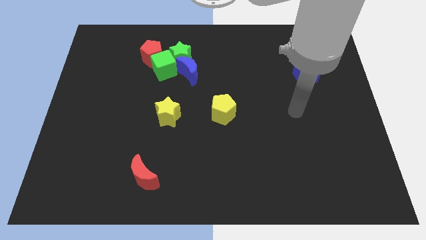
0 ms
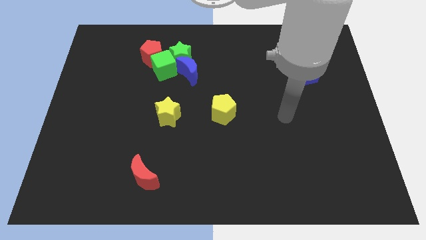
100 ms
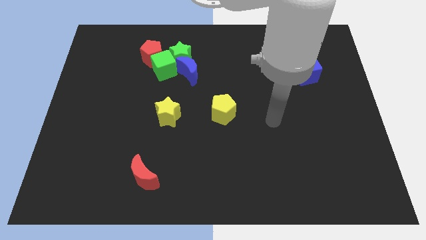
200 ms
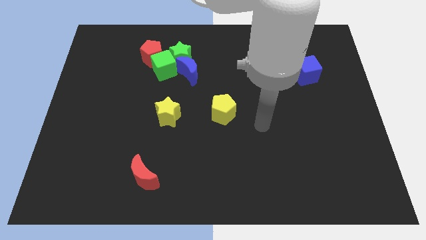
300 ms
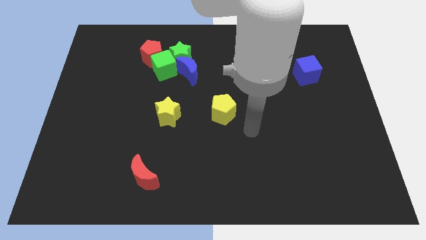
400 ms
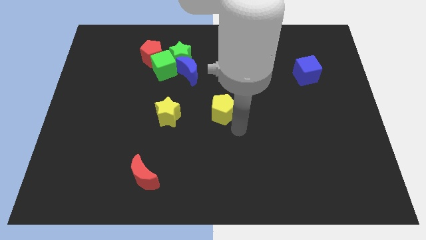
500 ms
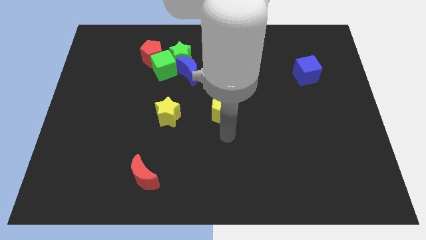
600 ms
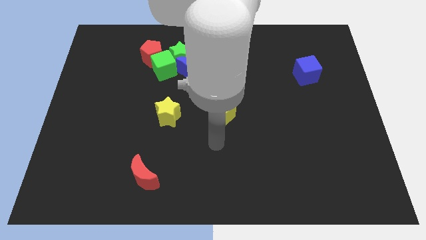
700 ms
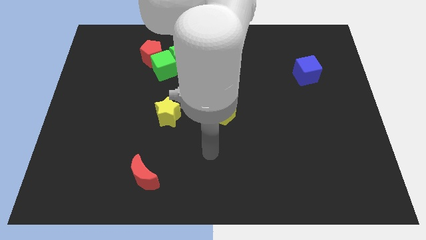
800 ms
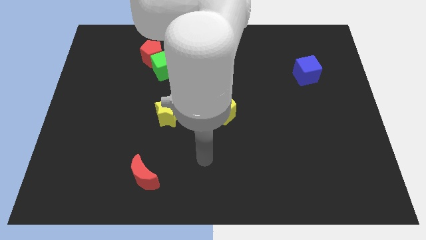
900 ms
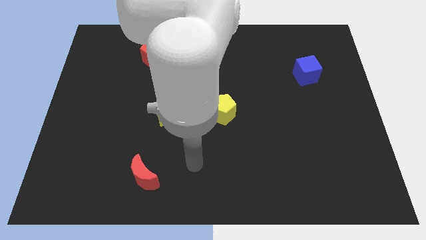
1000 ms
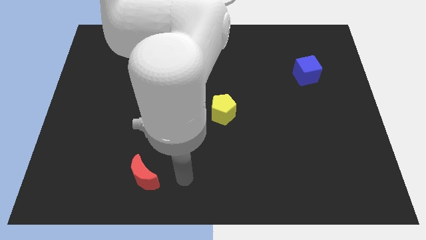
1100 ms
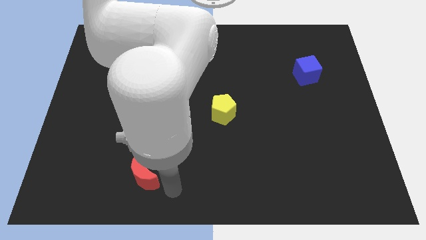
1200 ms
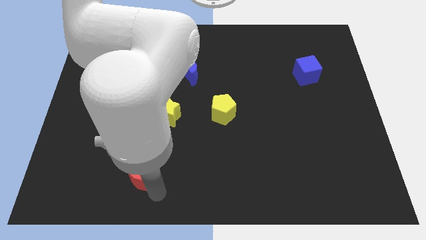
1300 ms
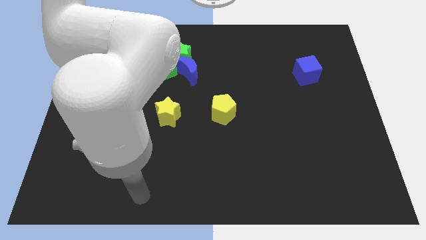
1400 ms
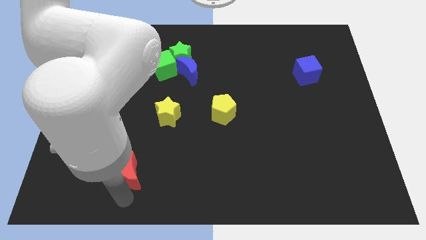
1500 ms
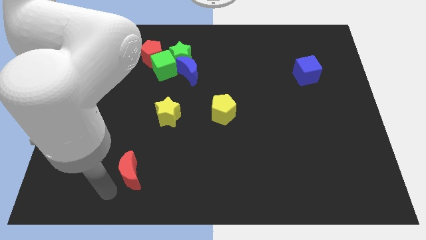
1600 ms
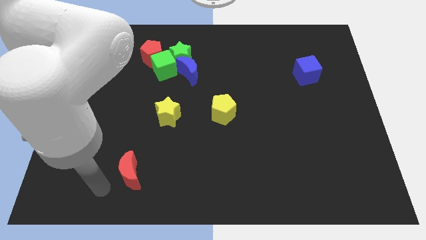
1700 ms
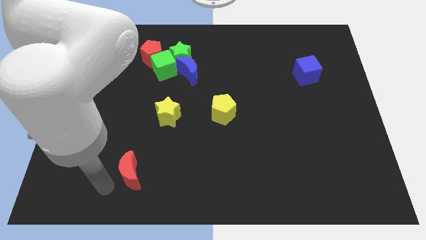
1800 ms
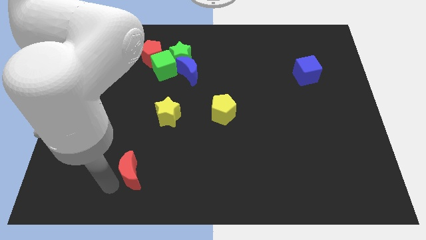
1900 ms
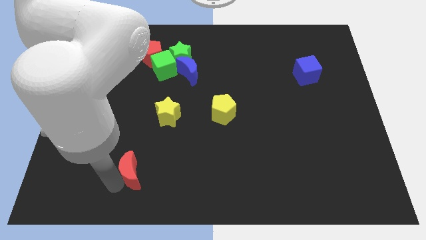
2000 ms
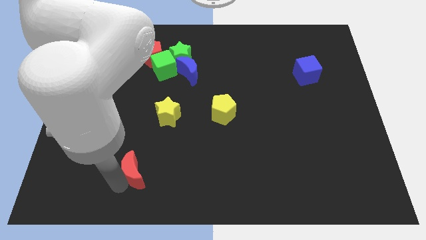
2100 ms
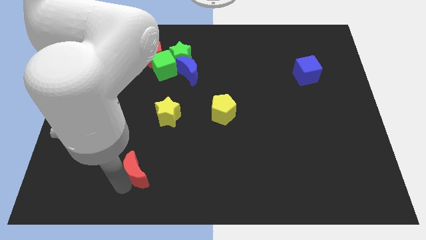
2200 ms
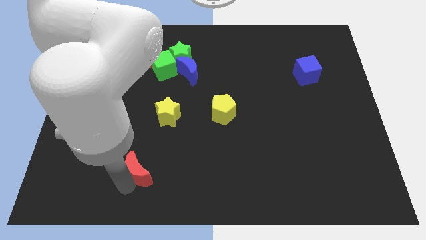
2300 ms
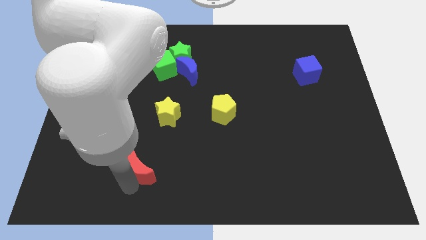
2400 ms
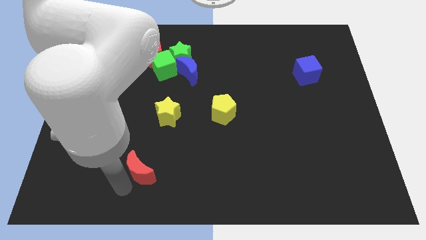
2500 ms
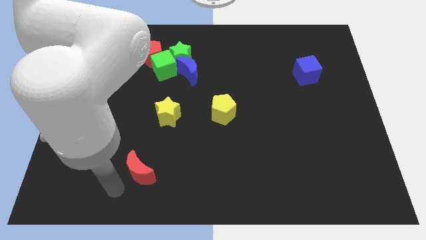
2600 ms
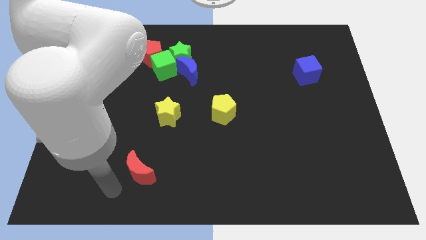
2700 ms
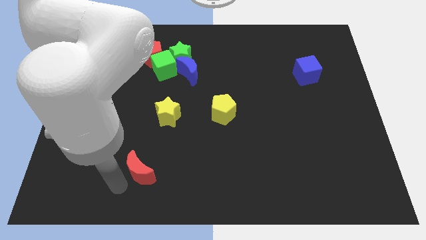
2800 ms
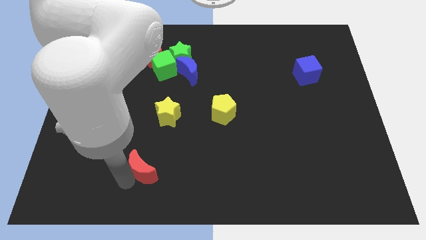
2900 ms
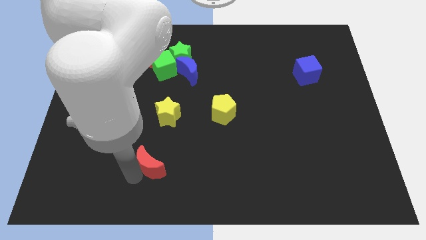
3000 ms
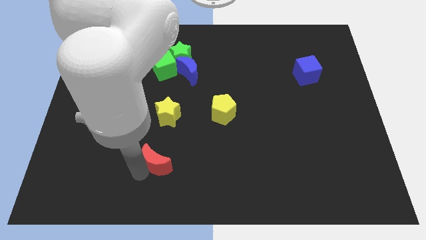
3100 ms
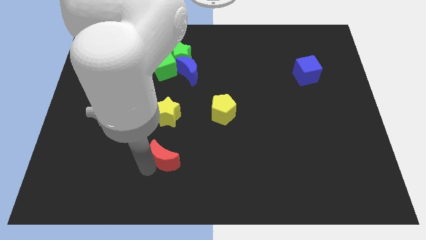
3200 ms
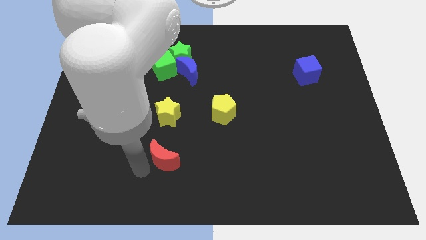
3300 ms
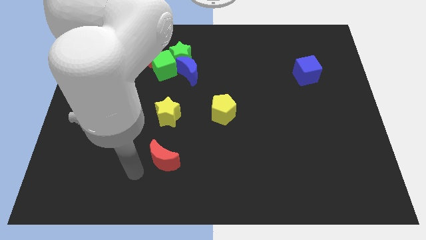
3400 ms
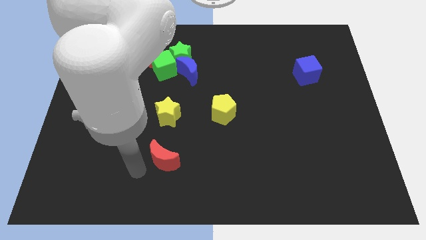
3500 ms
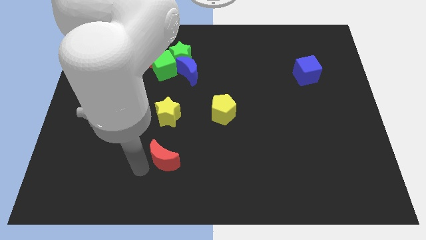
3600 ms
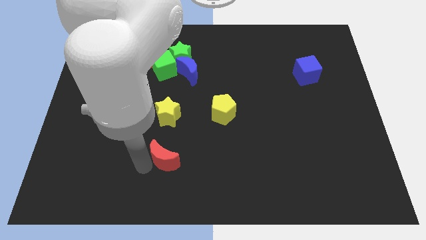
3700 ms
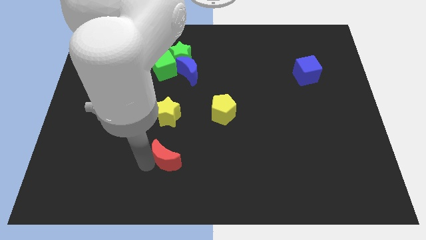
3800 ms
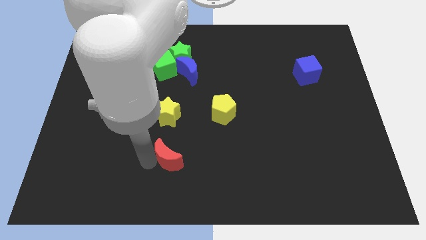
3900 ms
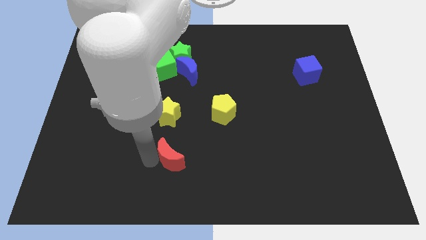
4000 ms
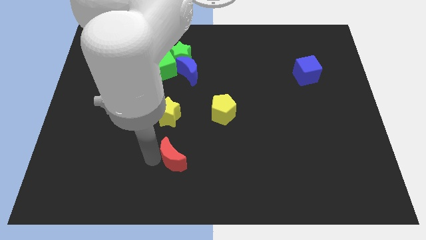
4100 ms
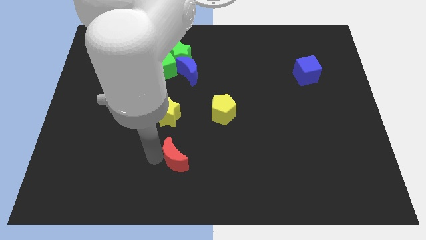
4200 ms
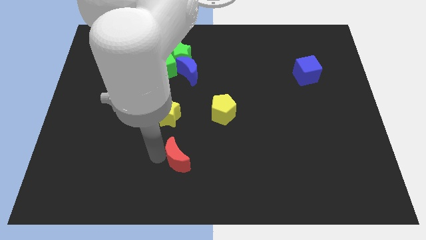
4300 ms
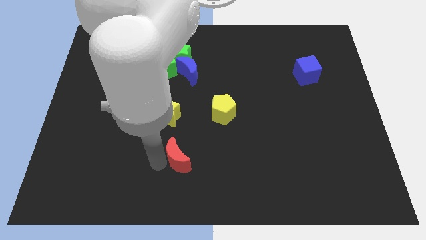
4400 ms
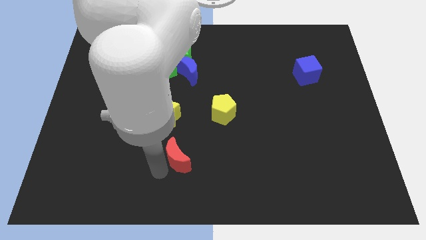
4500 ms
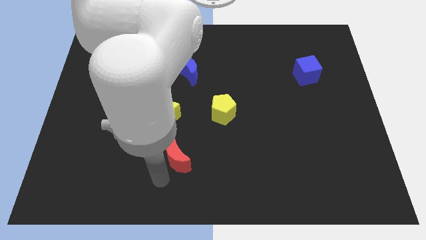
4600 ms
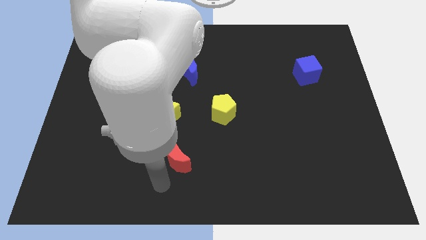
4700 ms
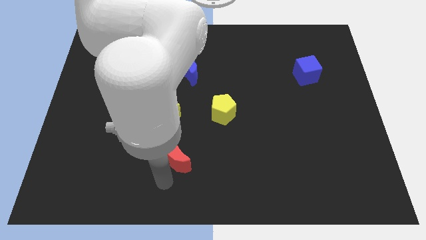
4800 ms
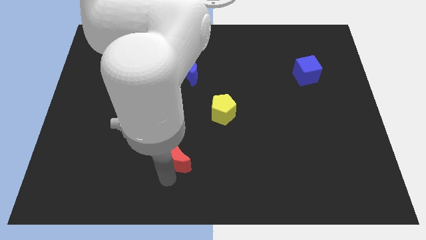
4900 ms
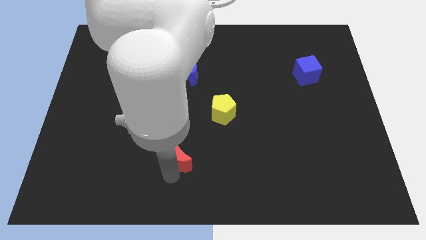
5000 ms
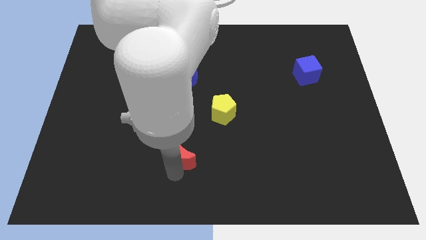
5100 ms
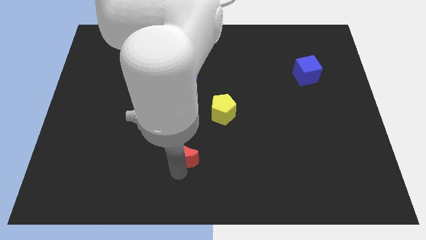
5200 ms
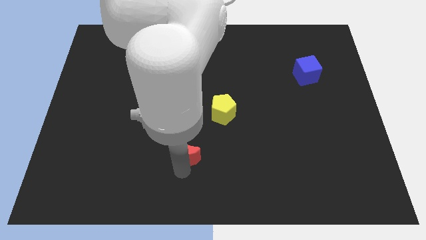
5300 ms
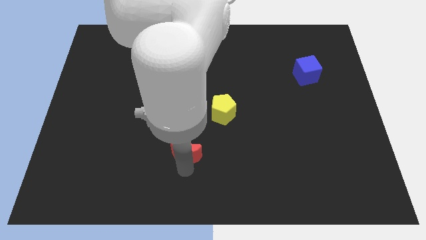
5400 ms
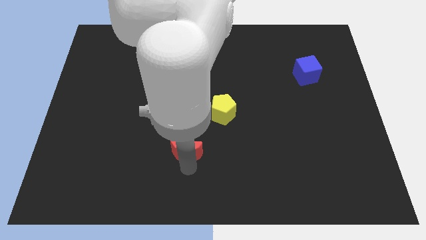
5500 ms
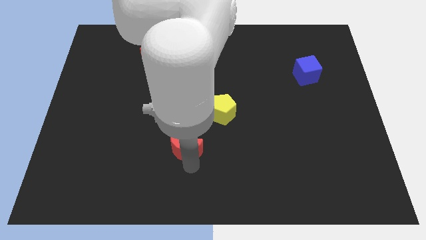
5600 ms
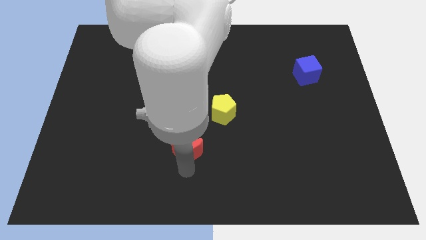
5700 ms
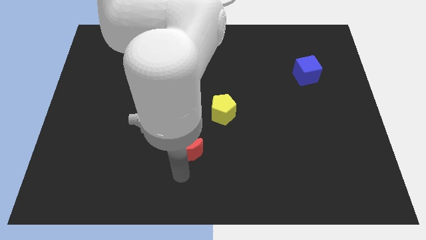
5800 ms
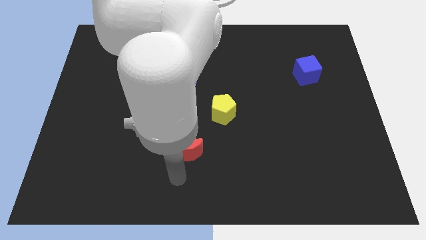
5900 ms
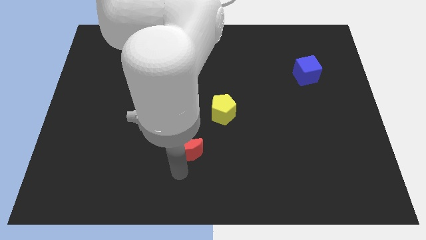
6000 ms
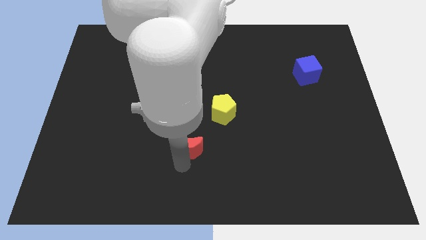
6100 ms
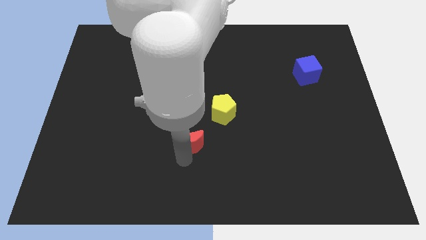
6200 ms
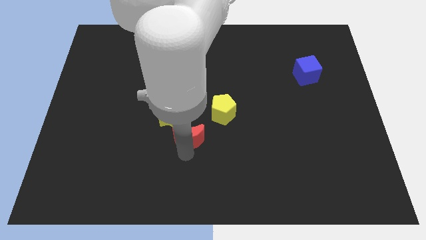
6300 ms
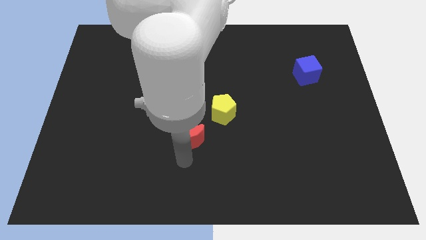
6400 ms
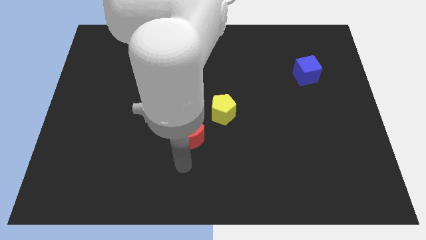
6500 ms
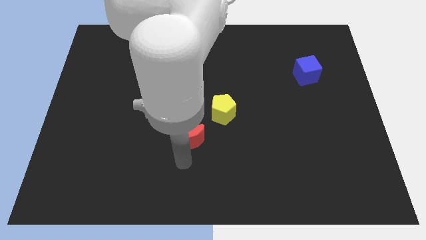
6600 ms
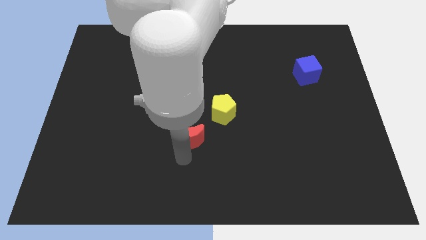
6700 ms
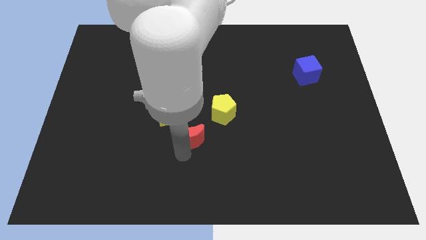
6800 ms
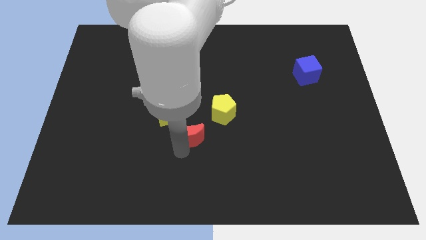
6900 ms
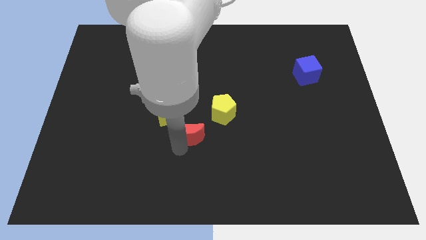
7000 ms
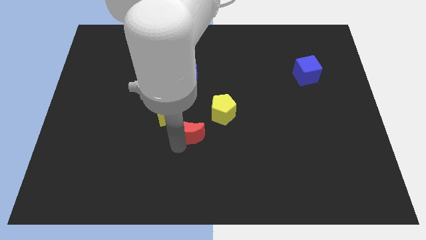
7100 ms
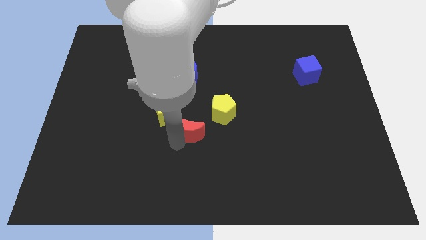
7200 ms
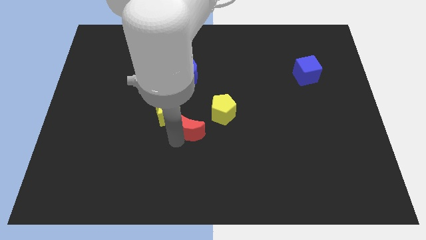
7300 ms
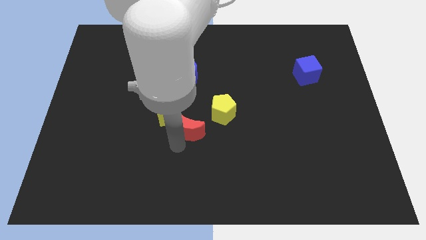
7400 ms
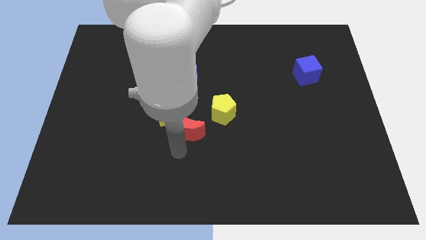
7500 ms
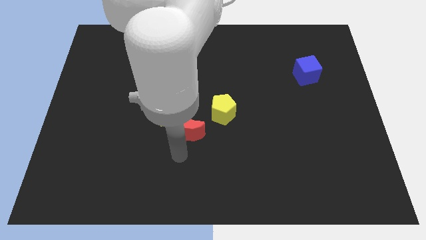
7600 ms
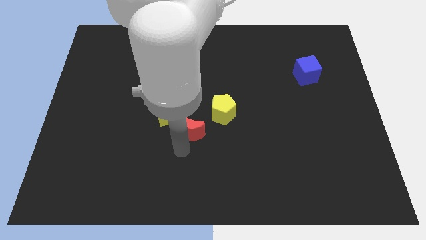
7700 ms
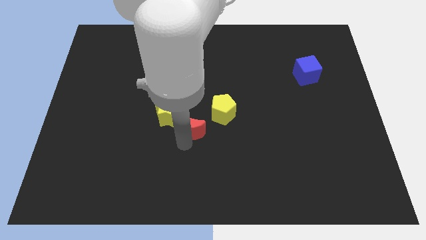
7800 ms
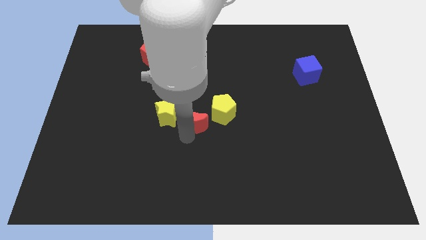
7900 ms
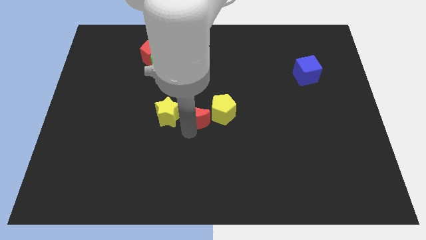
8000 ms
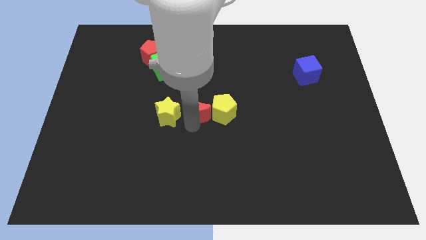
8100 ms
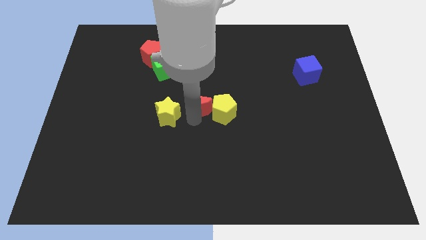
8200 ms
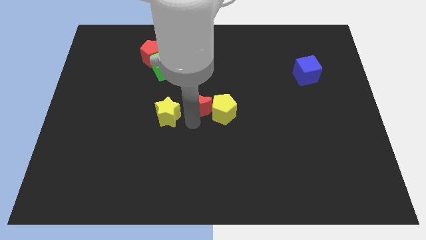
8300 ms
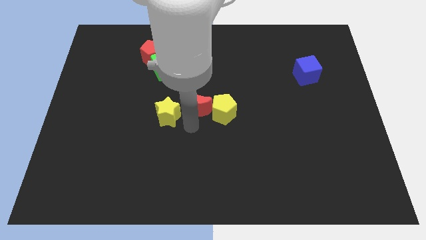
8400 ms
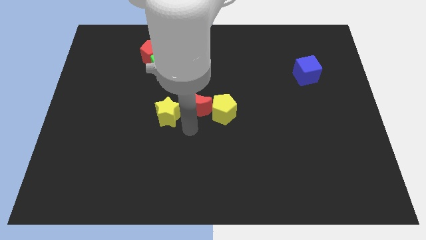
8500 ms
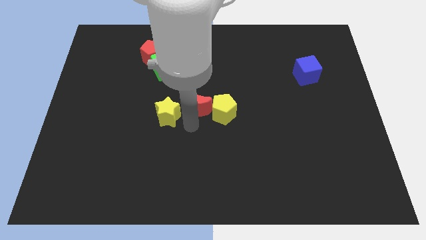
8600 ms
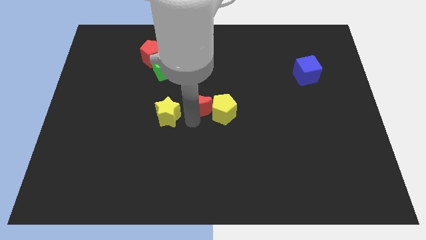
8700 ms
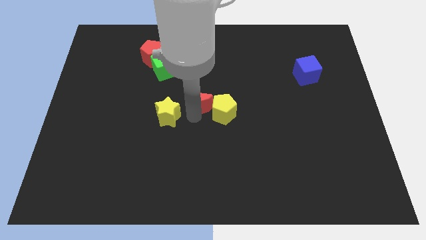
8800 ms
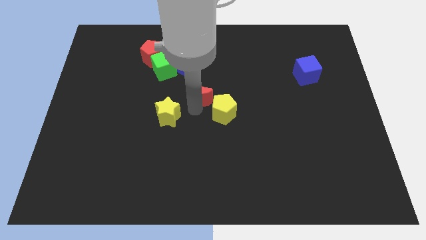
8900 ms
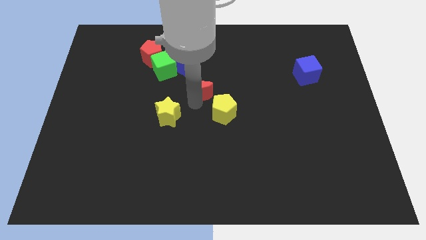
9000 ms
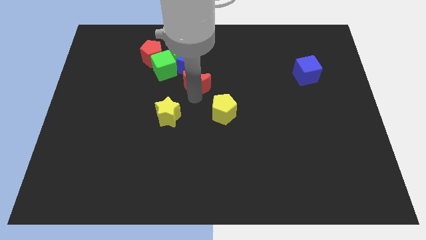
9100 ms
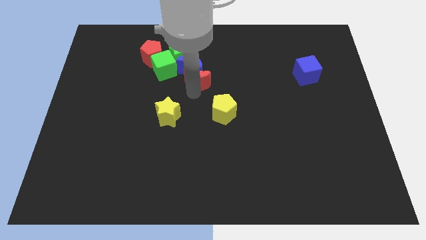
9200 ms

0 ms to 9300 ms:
push the red moon right of the green cube
